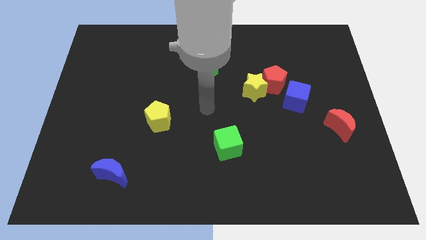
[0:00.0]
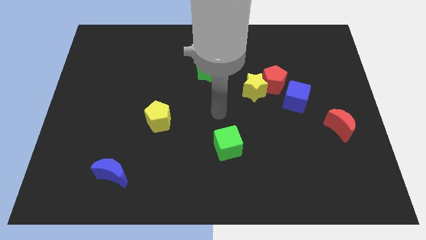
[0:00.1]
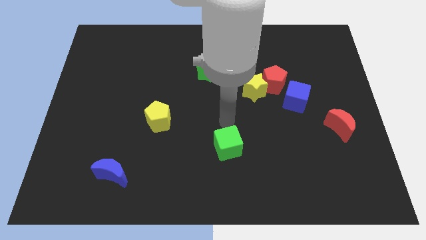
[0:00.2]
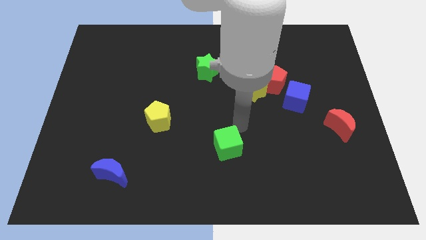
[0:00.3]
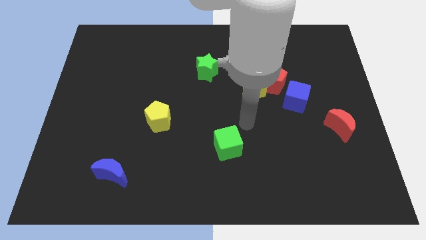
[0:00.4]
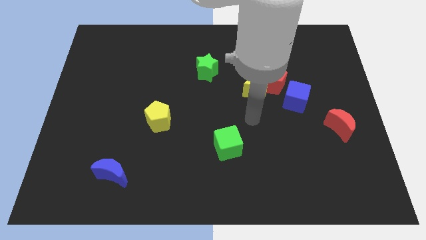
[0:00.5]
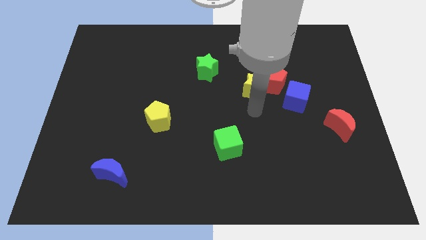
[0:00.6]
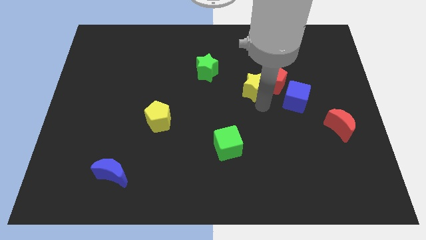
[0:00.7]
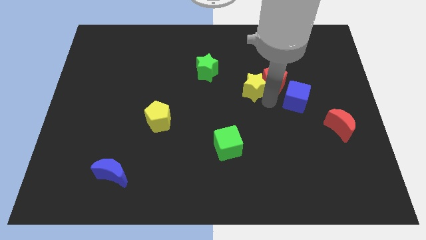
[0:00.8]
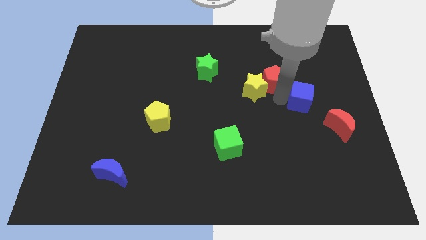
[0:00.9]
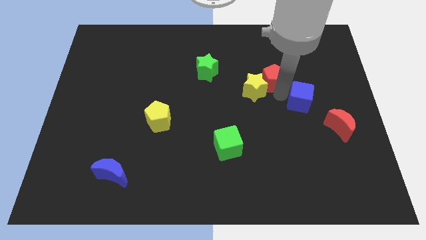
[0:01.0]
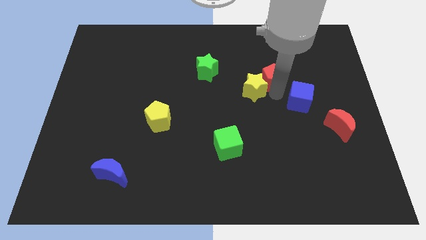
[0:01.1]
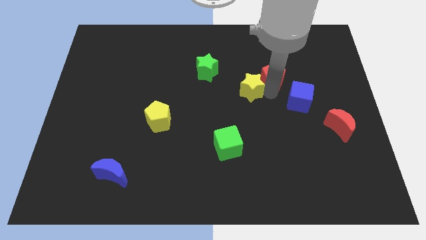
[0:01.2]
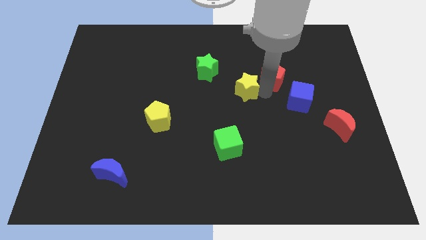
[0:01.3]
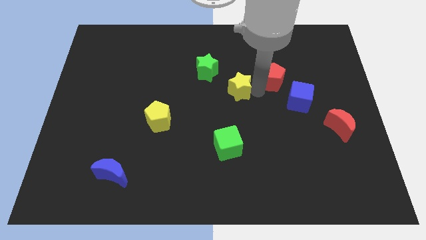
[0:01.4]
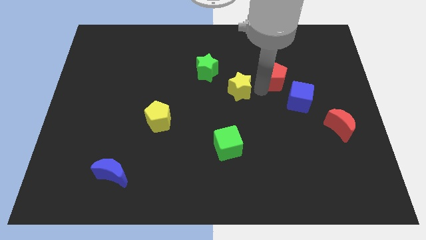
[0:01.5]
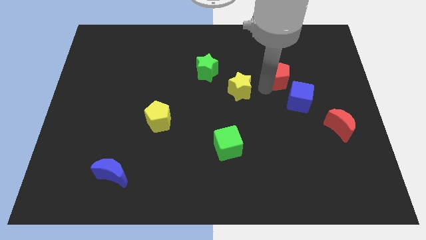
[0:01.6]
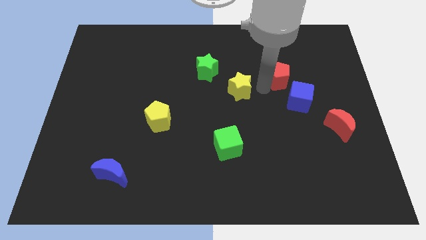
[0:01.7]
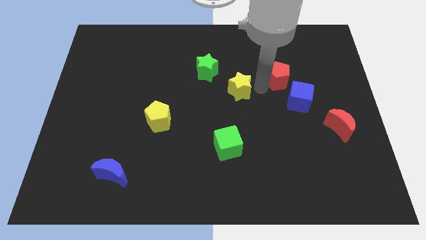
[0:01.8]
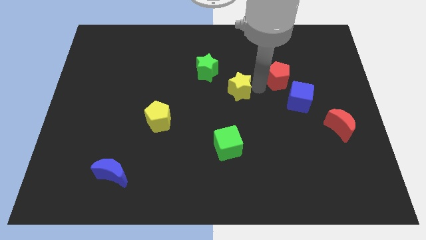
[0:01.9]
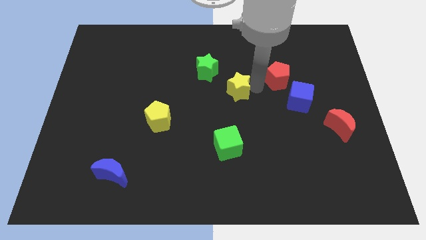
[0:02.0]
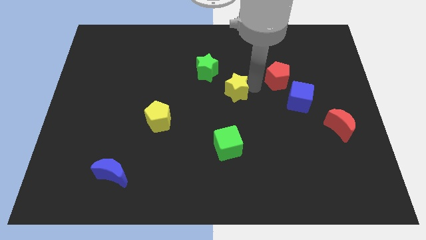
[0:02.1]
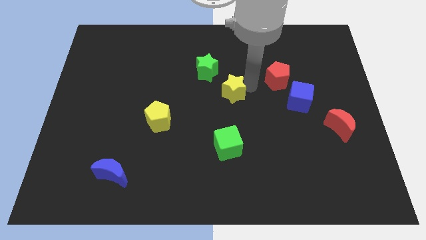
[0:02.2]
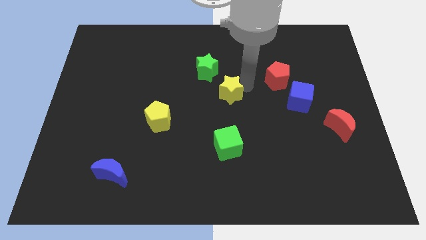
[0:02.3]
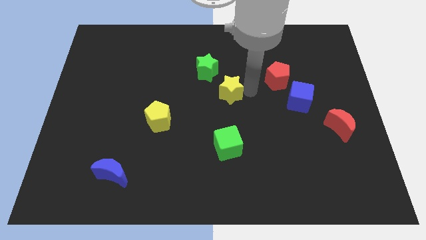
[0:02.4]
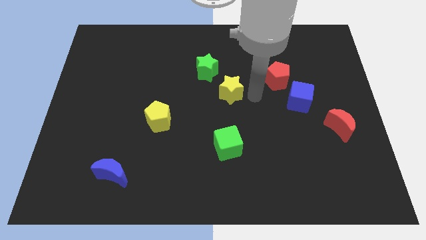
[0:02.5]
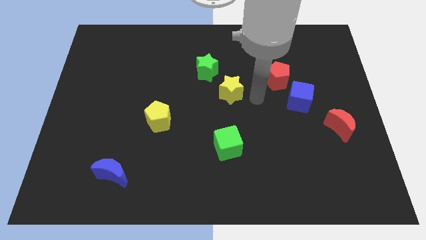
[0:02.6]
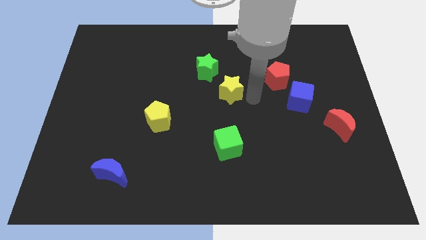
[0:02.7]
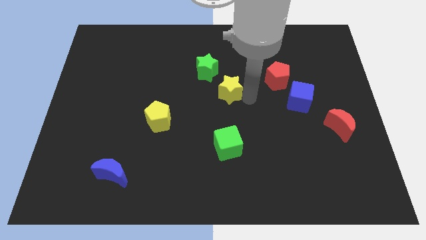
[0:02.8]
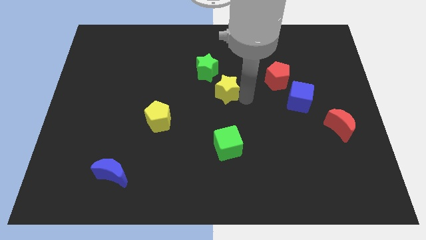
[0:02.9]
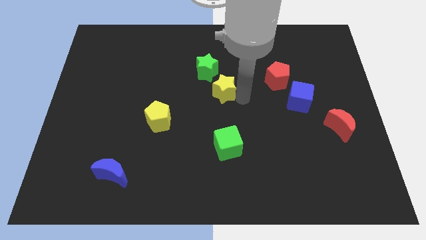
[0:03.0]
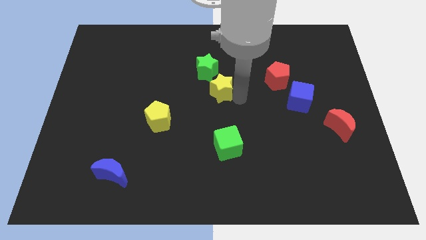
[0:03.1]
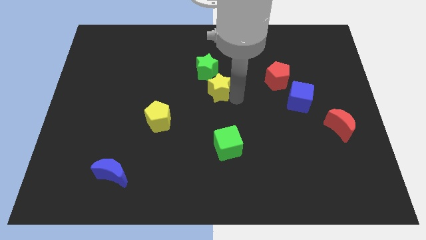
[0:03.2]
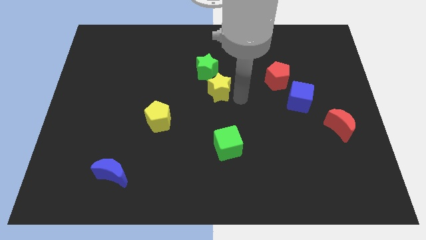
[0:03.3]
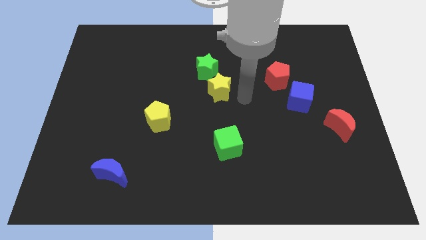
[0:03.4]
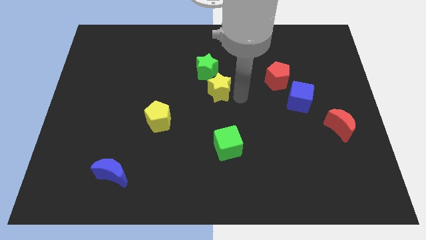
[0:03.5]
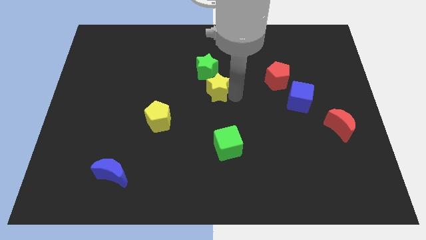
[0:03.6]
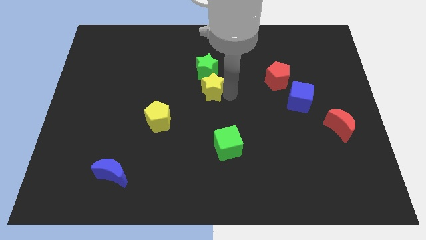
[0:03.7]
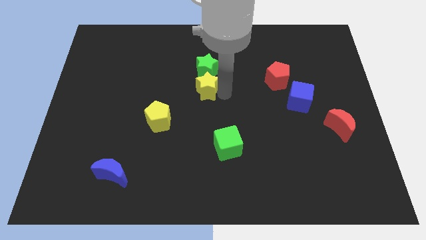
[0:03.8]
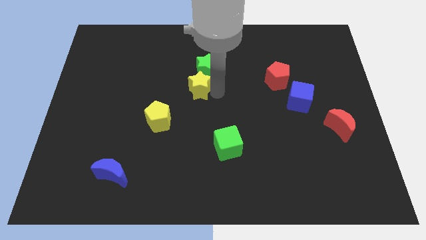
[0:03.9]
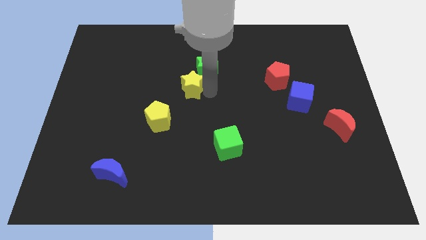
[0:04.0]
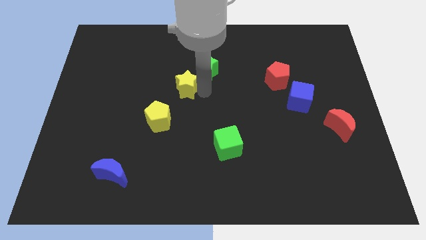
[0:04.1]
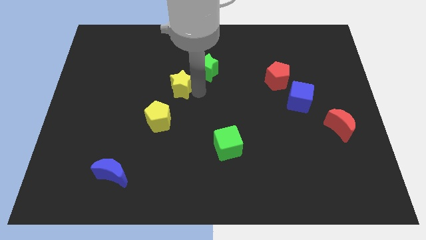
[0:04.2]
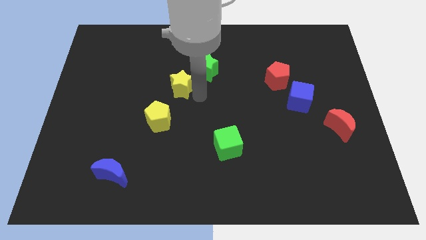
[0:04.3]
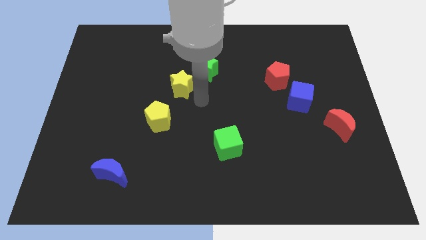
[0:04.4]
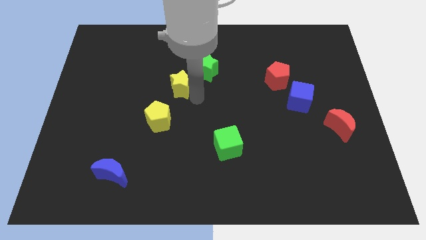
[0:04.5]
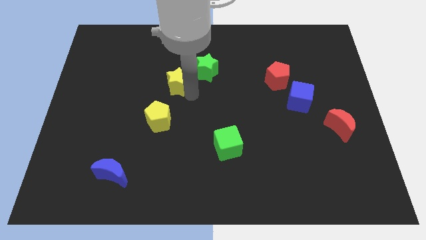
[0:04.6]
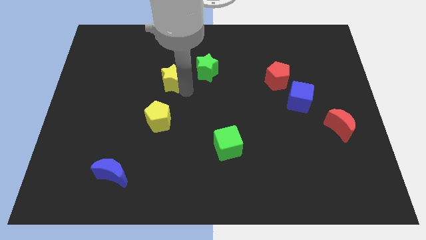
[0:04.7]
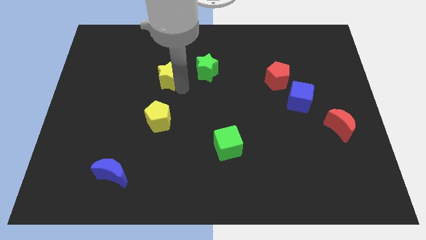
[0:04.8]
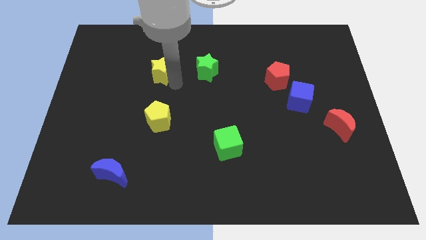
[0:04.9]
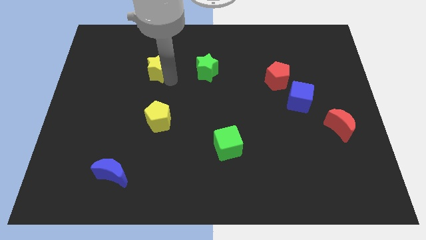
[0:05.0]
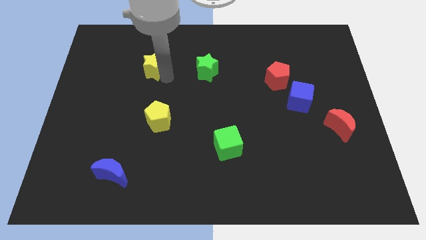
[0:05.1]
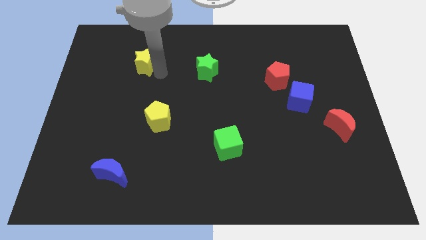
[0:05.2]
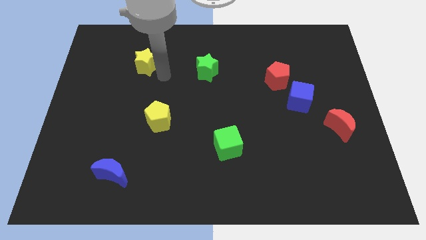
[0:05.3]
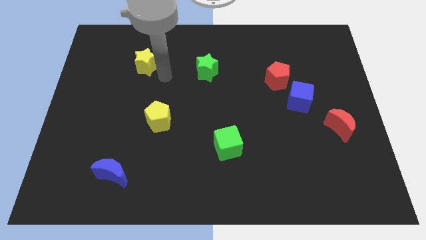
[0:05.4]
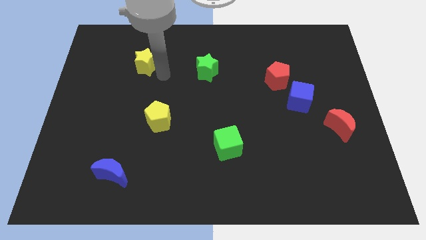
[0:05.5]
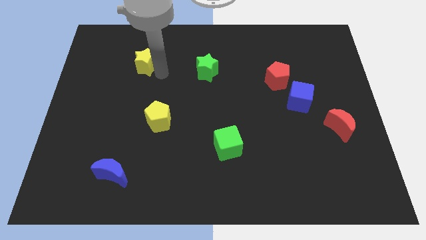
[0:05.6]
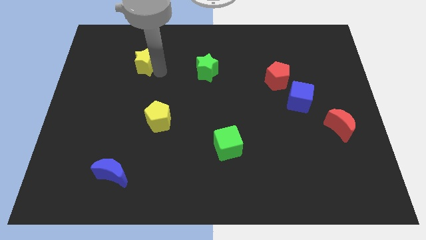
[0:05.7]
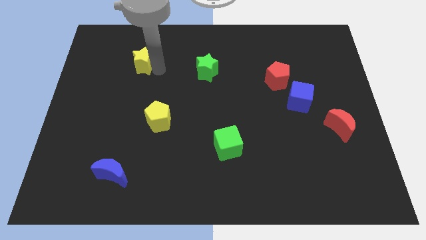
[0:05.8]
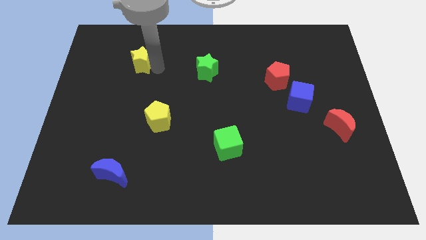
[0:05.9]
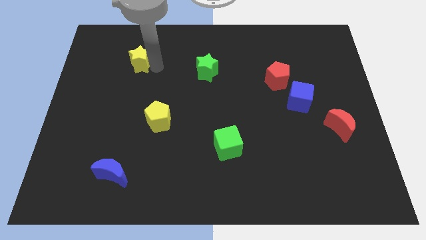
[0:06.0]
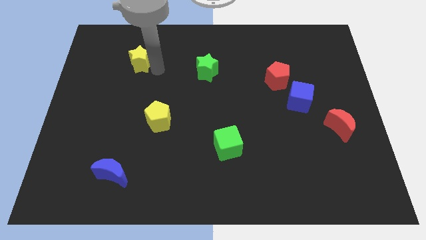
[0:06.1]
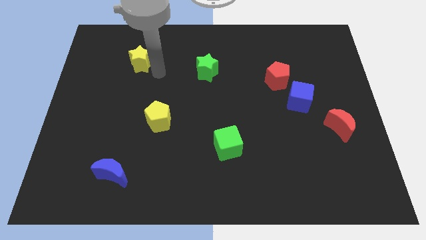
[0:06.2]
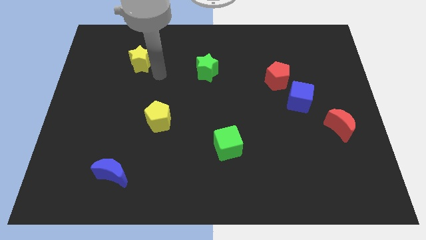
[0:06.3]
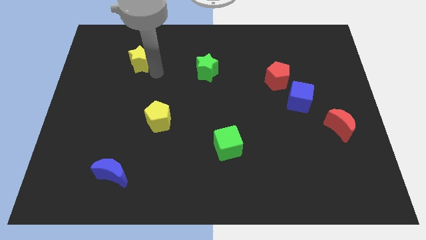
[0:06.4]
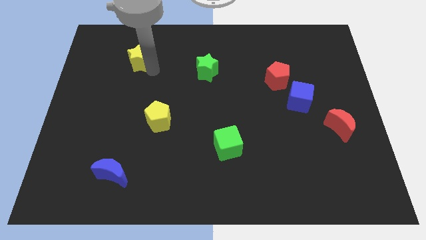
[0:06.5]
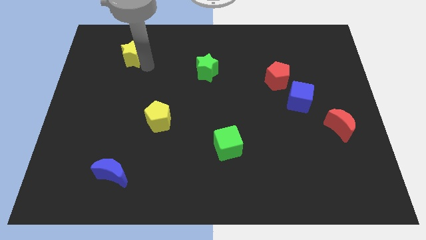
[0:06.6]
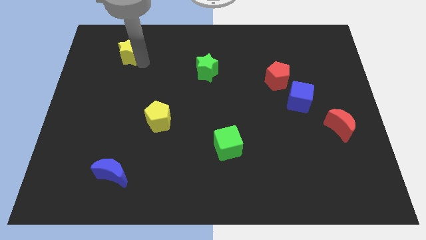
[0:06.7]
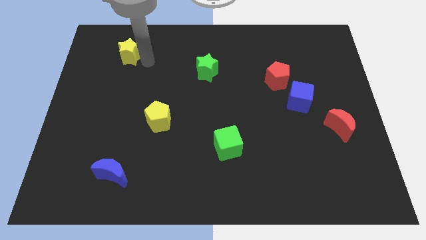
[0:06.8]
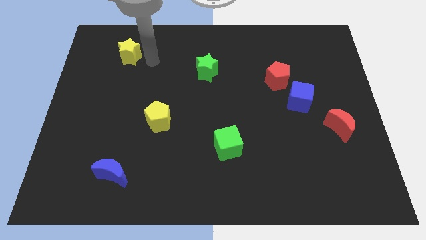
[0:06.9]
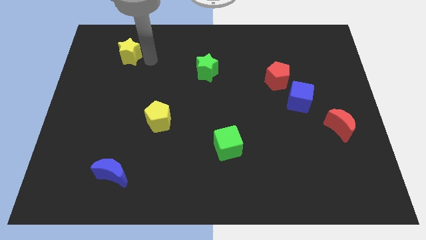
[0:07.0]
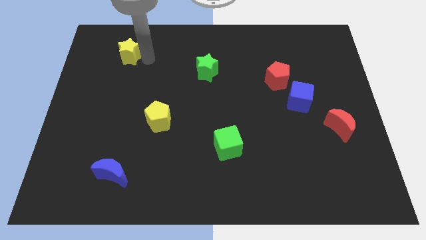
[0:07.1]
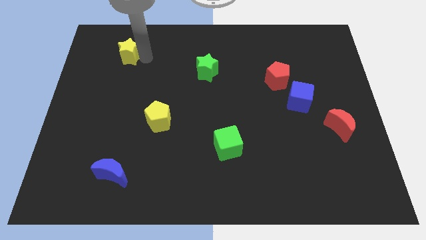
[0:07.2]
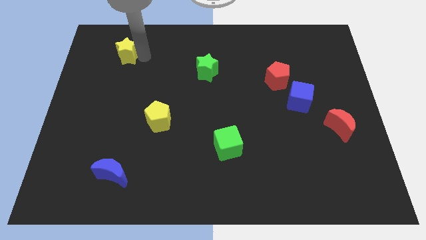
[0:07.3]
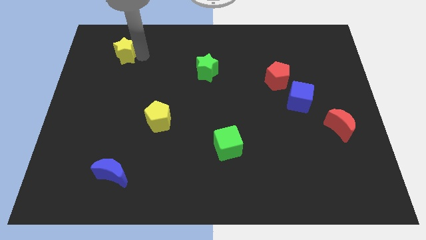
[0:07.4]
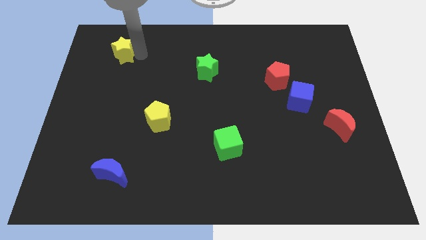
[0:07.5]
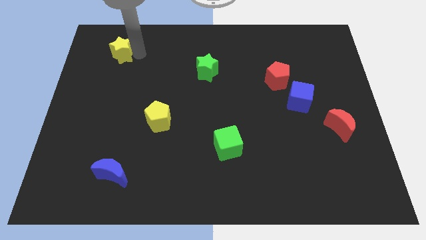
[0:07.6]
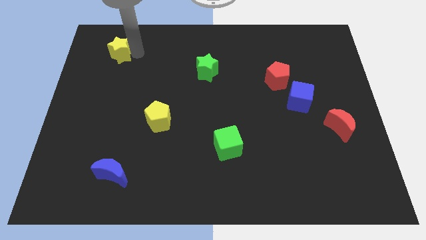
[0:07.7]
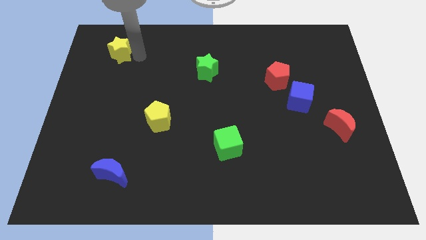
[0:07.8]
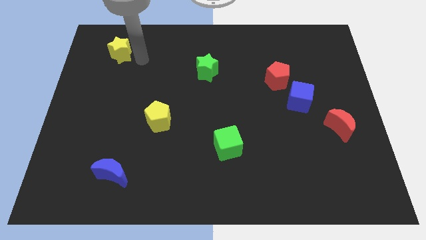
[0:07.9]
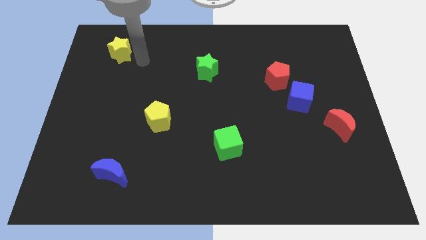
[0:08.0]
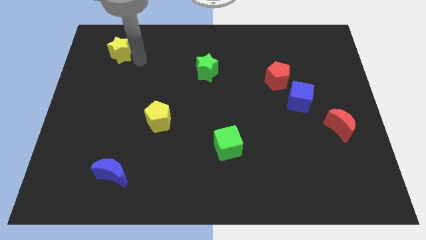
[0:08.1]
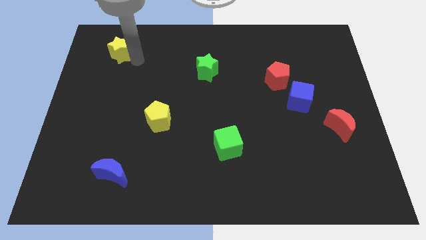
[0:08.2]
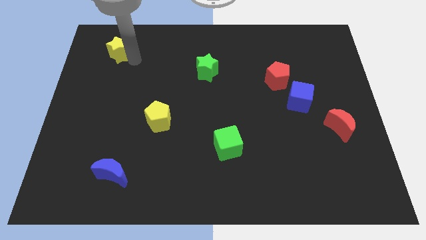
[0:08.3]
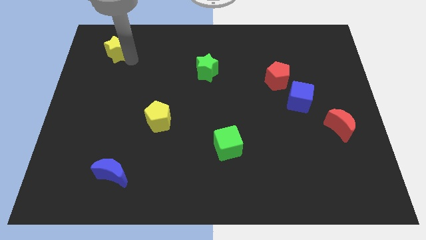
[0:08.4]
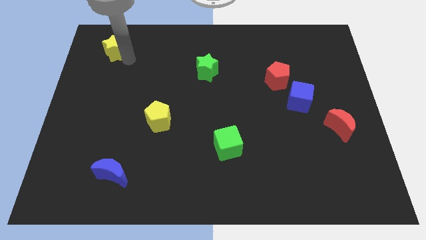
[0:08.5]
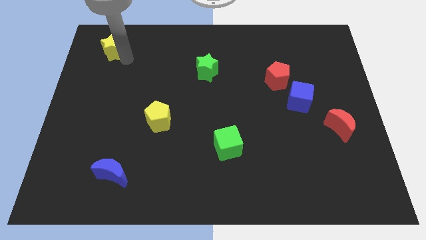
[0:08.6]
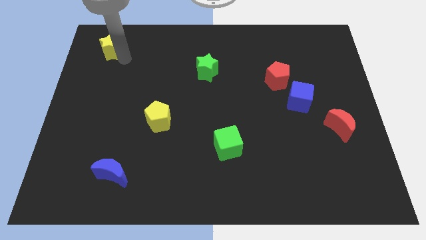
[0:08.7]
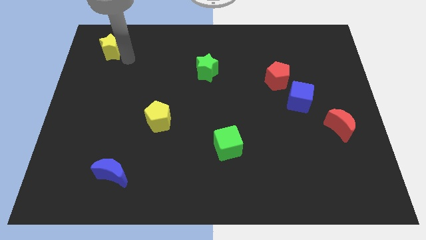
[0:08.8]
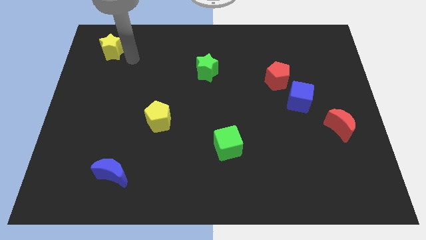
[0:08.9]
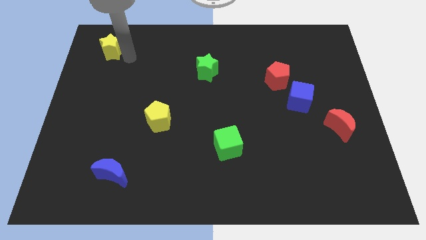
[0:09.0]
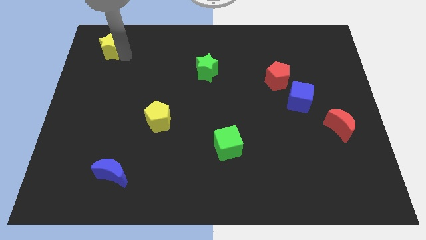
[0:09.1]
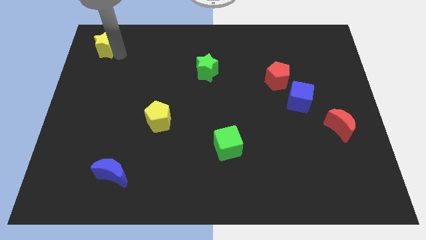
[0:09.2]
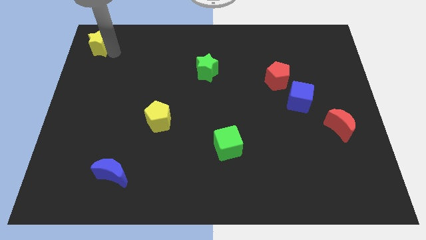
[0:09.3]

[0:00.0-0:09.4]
push the yellow star to the top left of the board
